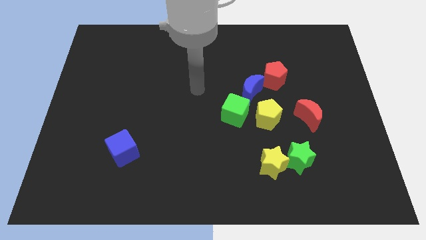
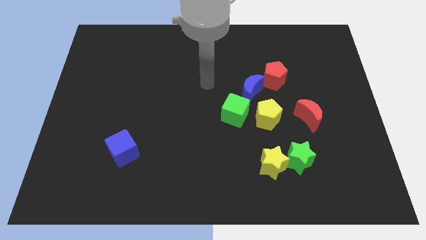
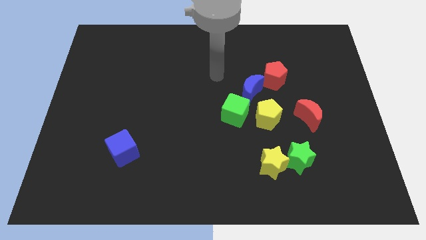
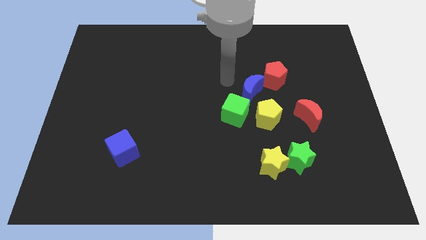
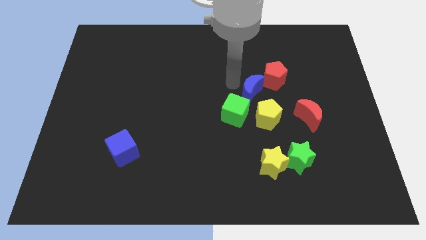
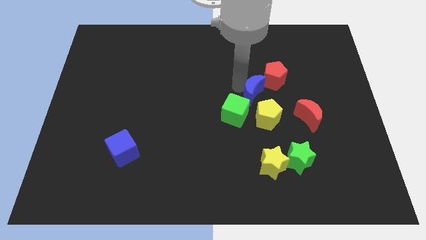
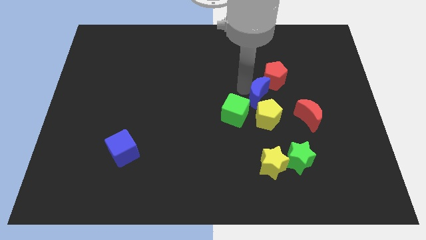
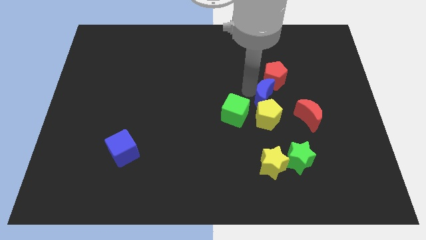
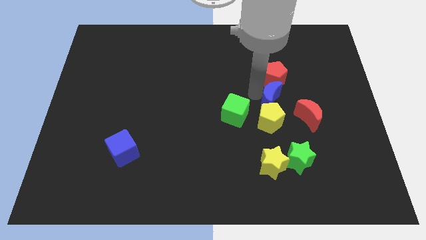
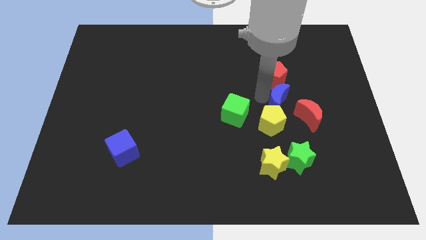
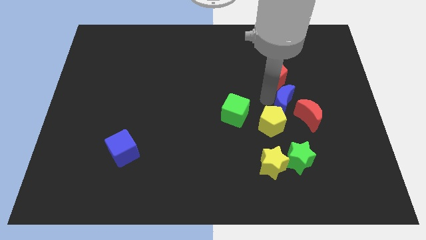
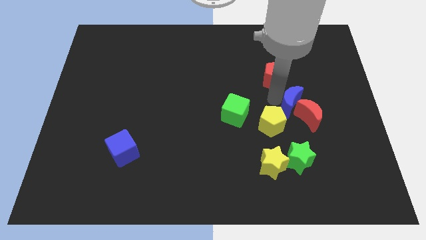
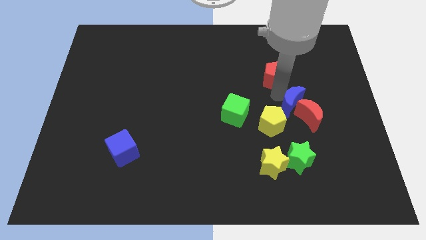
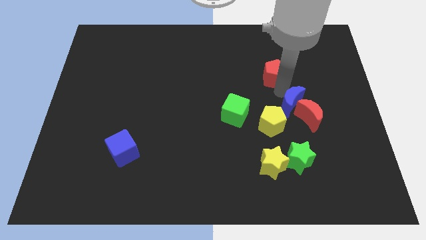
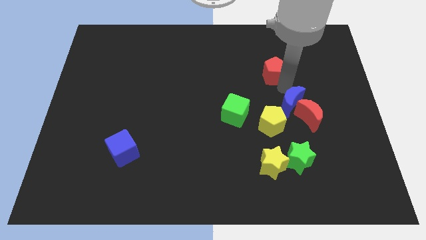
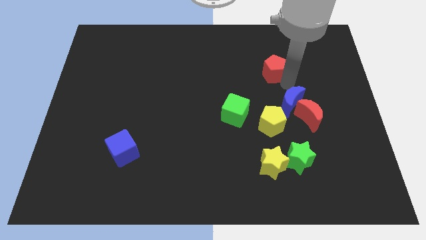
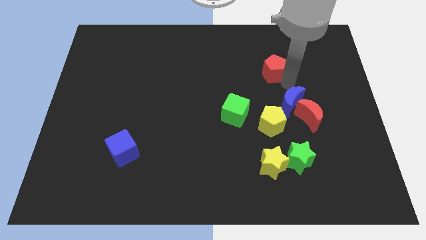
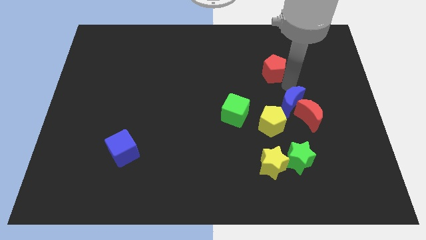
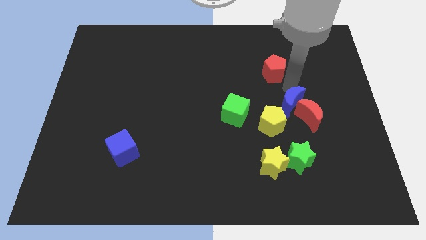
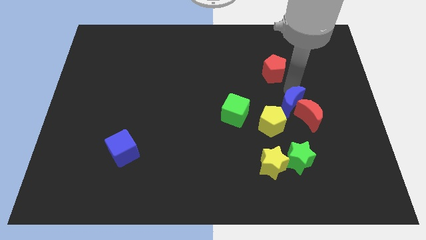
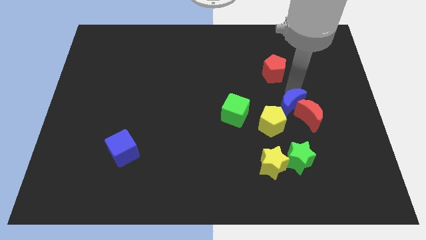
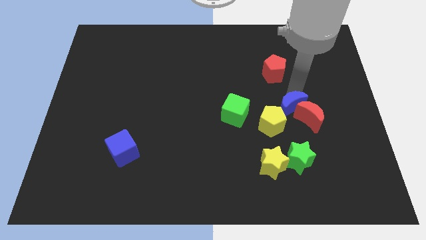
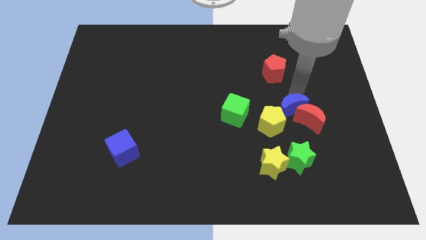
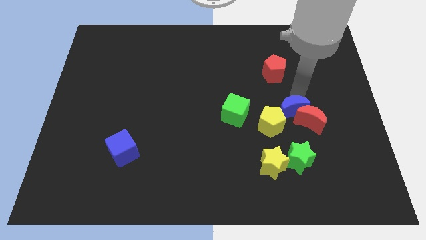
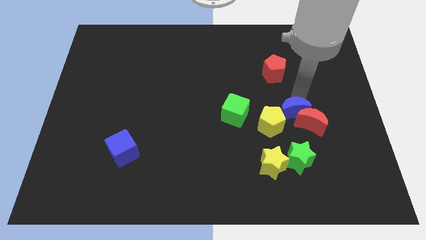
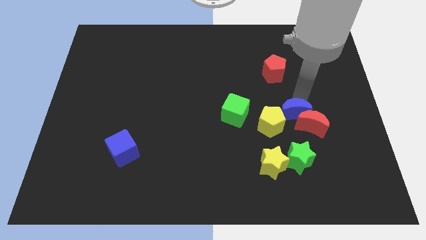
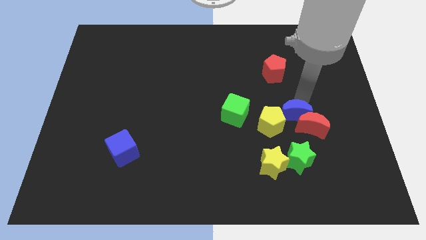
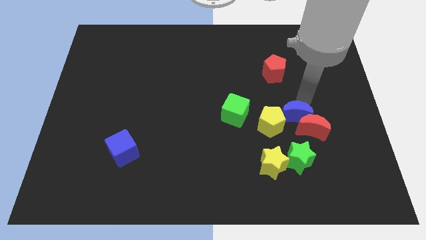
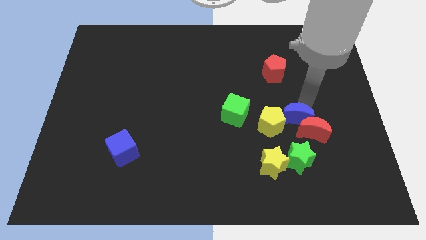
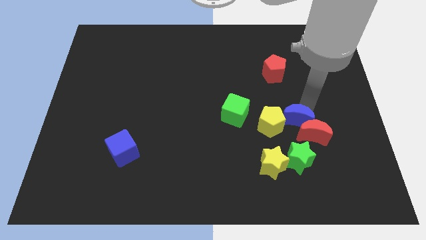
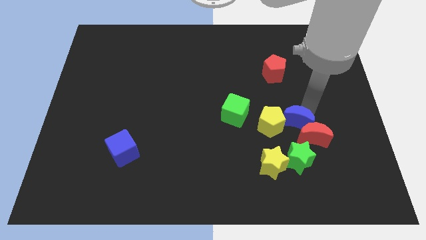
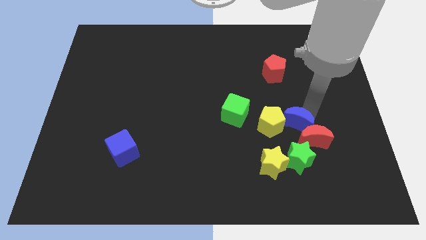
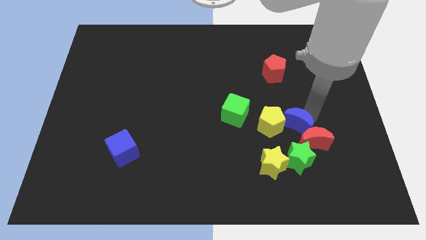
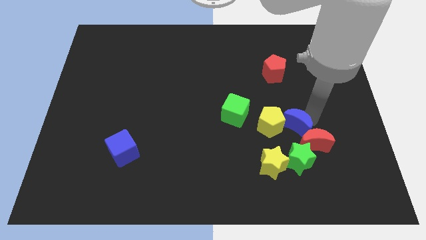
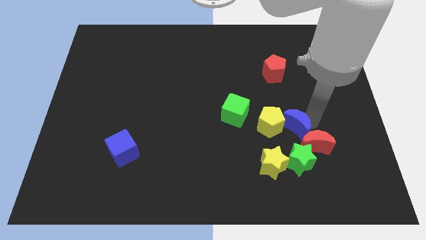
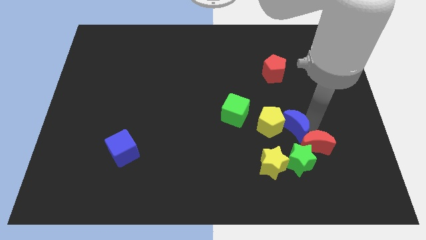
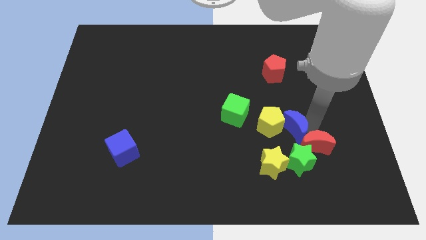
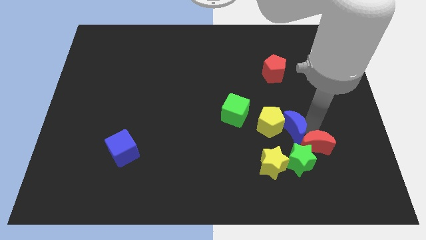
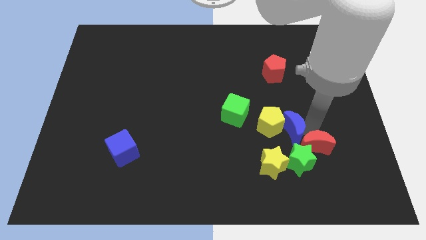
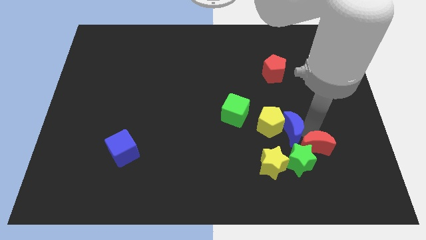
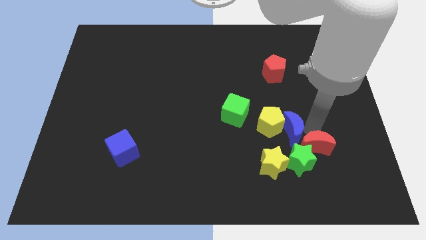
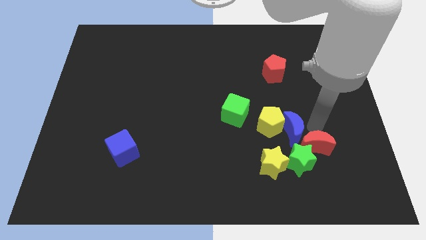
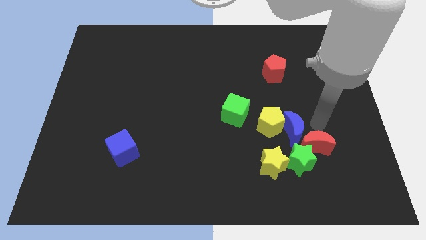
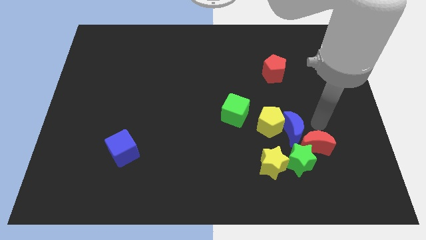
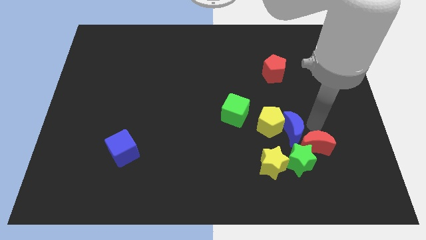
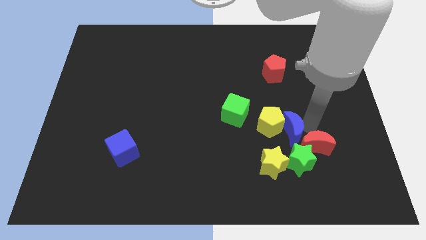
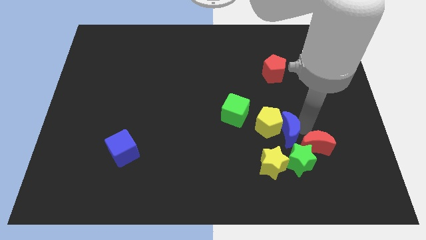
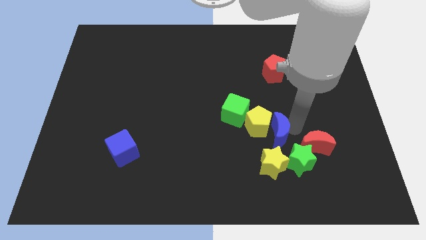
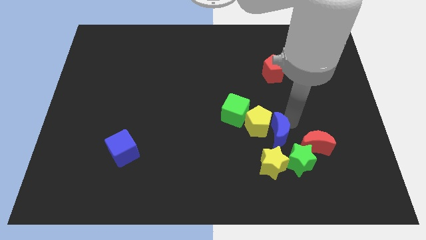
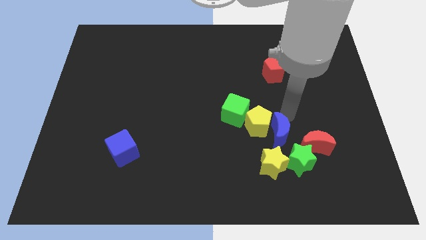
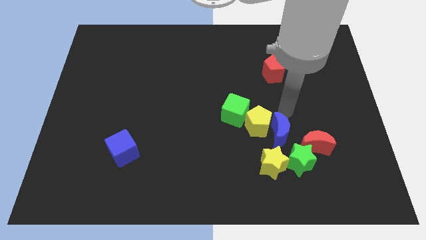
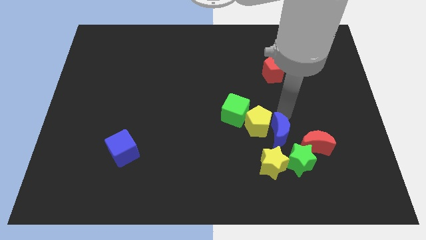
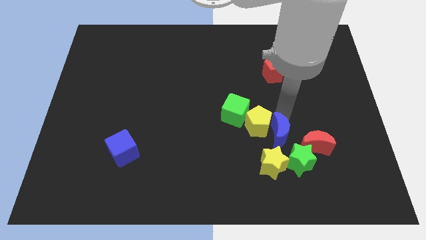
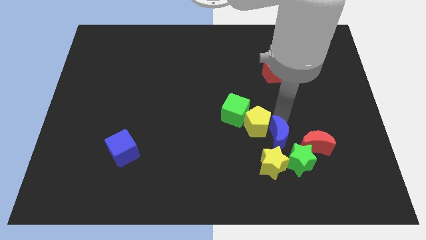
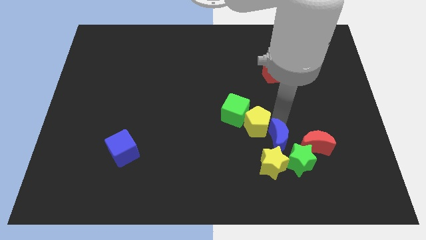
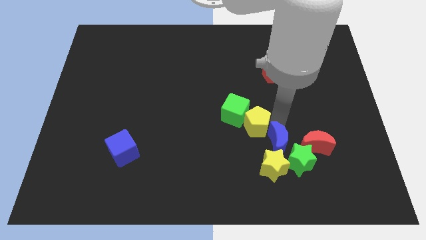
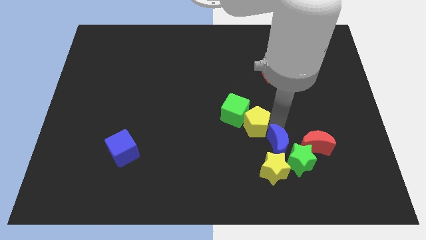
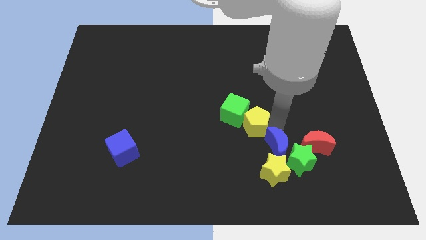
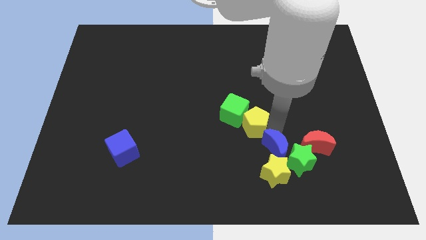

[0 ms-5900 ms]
move the blue moon to the yellow star

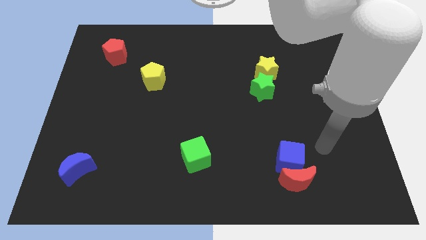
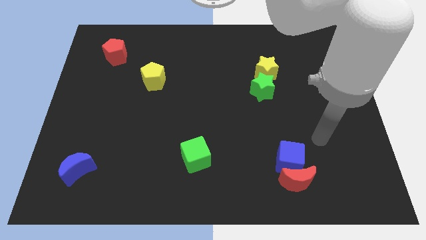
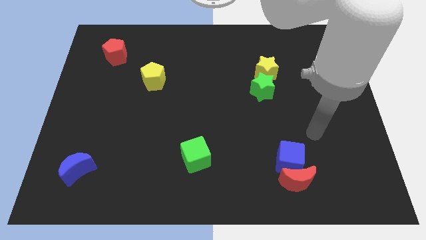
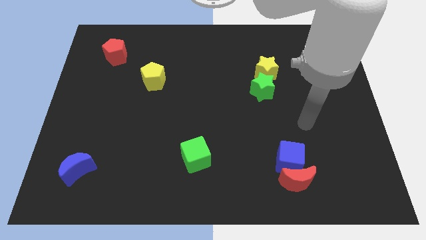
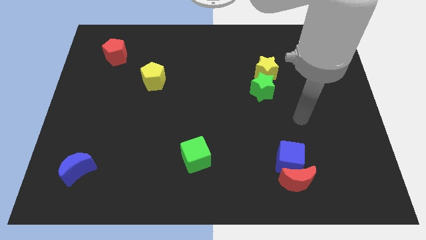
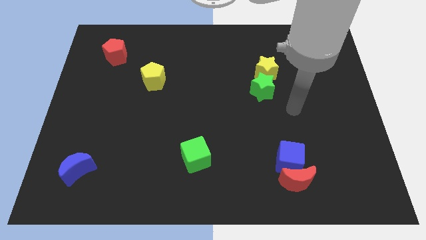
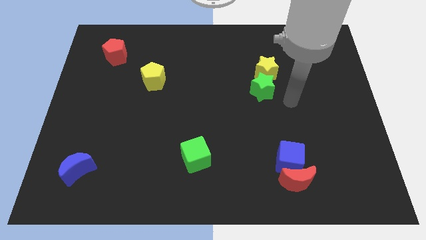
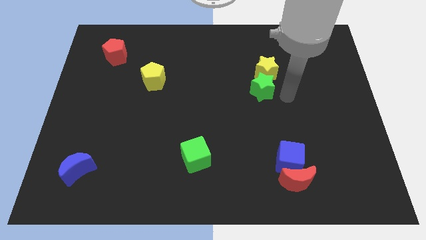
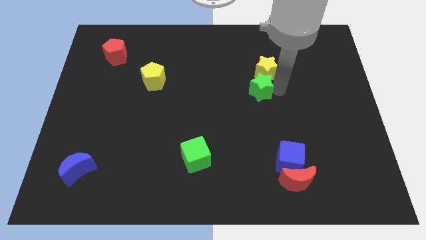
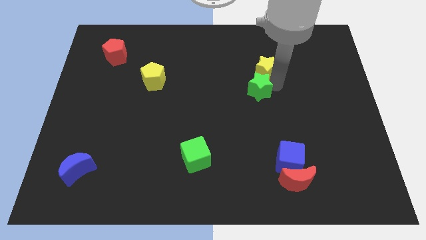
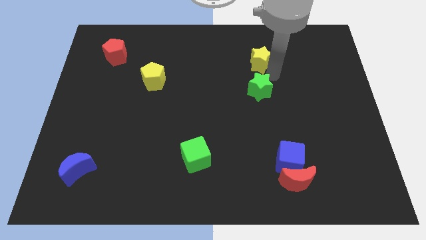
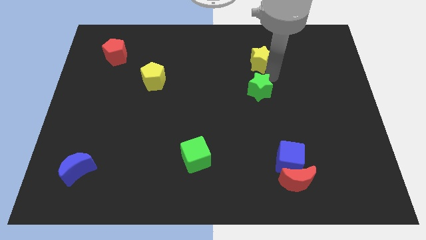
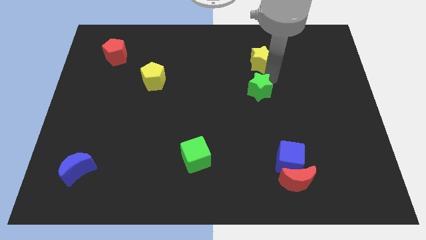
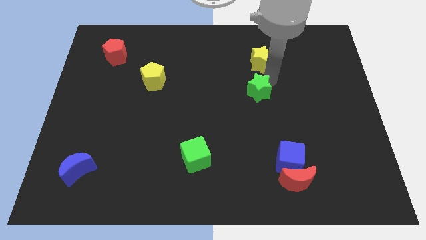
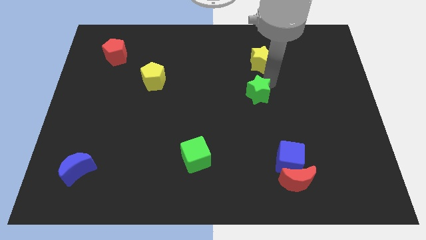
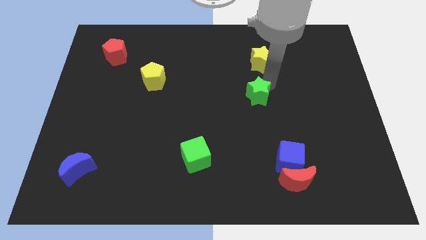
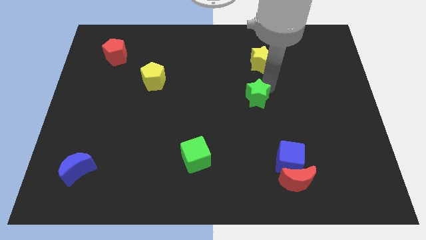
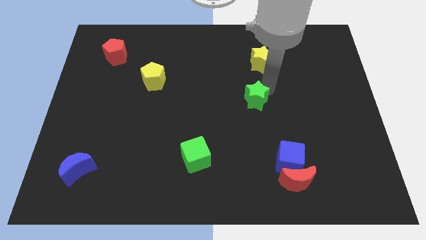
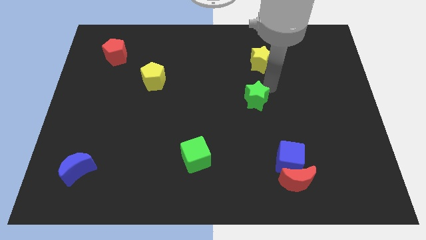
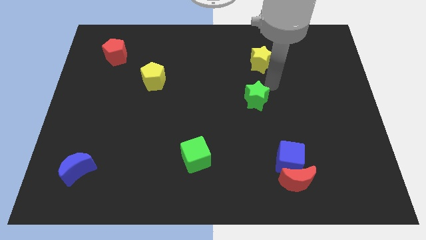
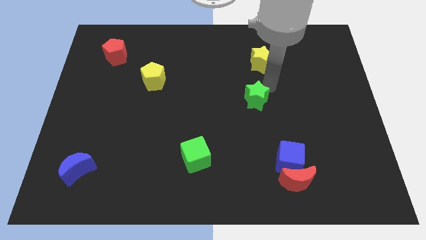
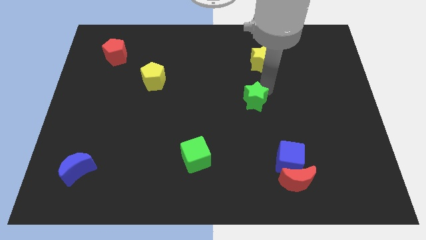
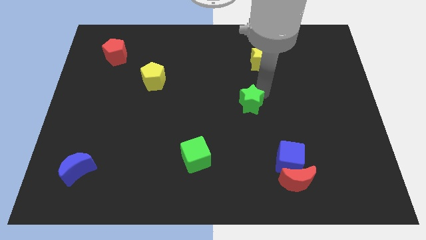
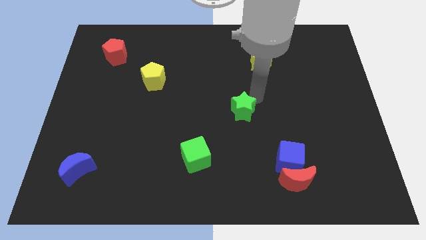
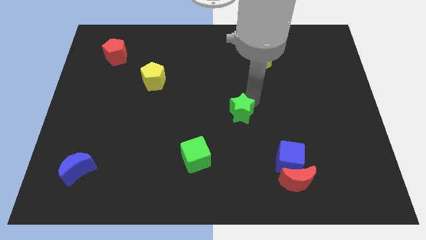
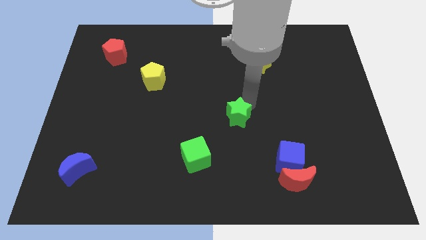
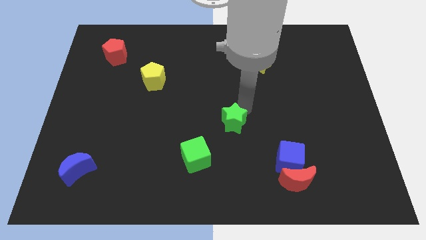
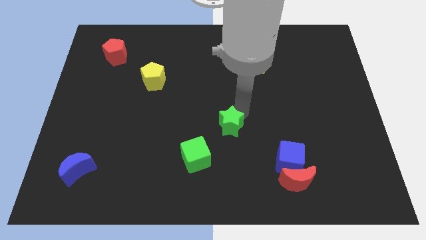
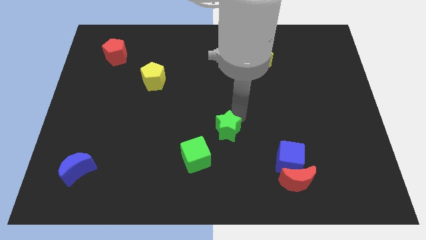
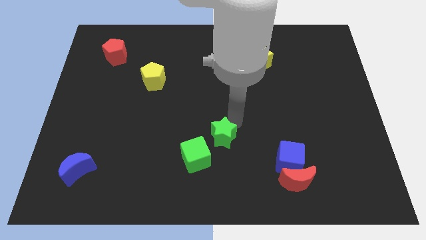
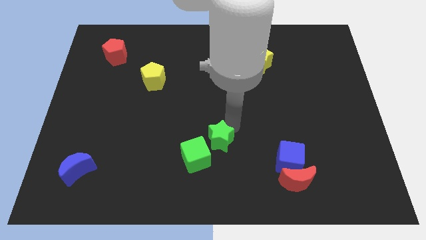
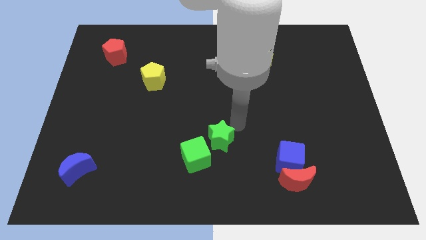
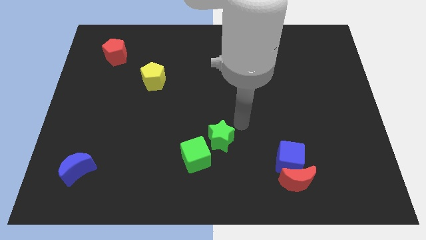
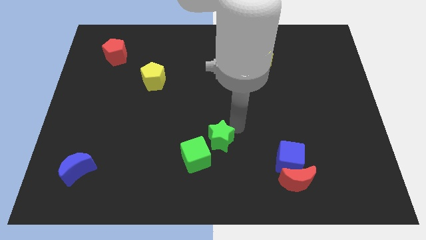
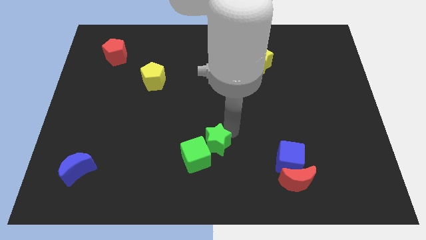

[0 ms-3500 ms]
put the green star towards the green cube
